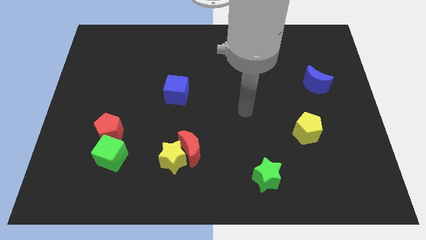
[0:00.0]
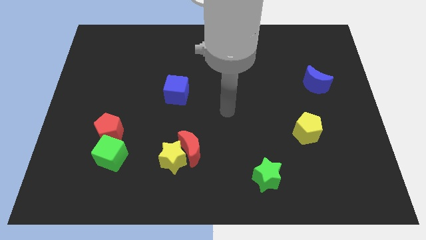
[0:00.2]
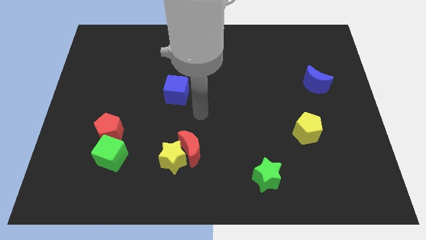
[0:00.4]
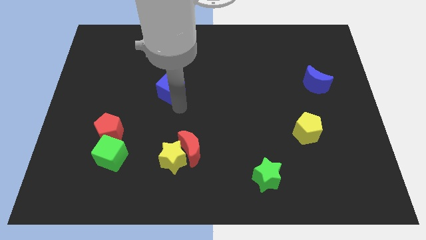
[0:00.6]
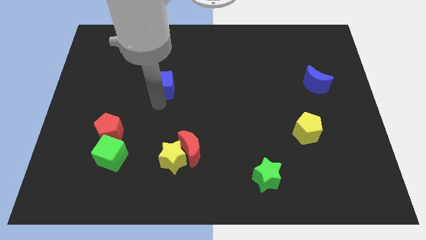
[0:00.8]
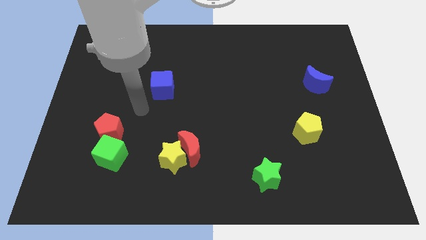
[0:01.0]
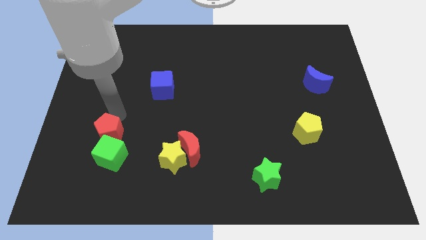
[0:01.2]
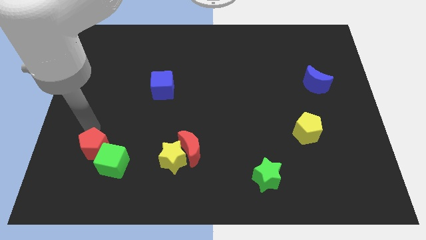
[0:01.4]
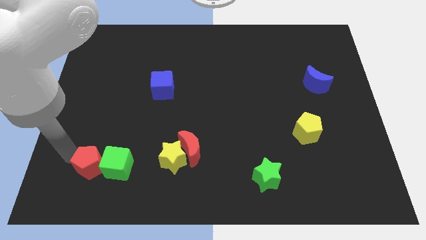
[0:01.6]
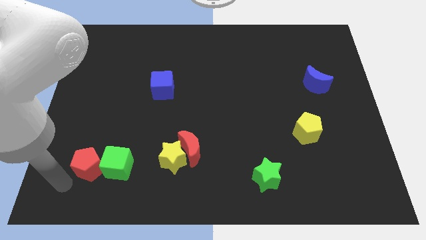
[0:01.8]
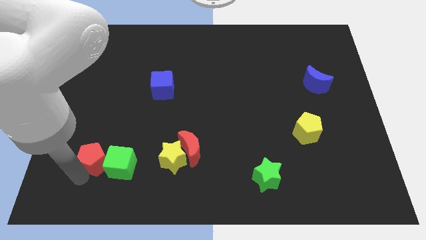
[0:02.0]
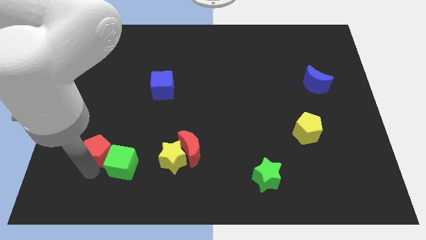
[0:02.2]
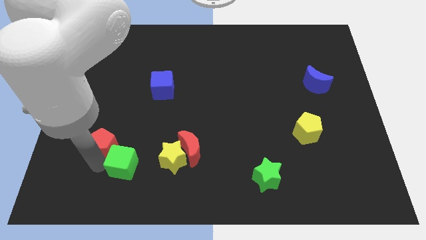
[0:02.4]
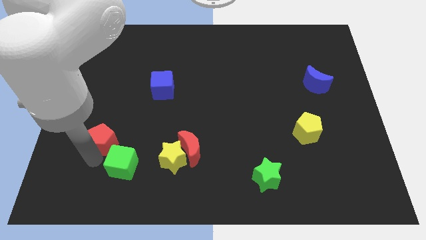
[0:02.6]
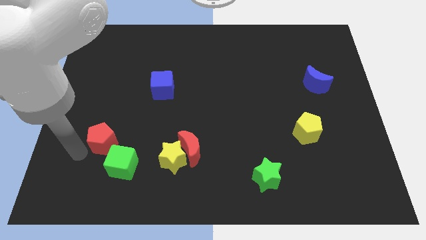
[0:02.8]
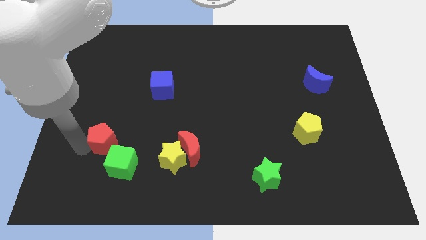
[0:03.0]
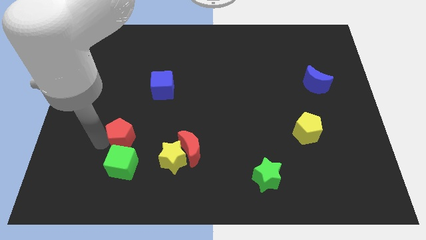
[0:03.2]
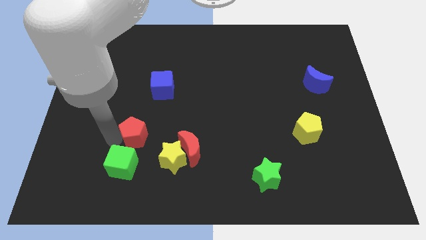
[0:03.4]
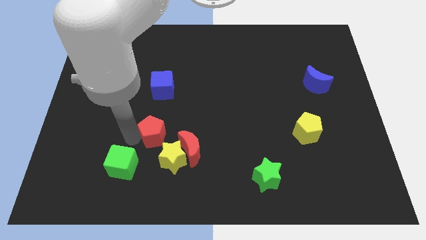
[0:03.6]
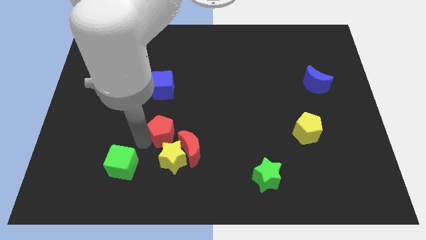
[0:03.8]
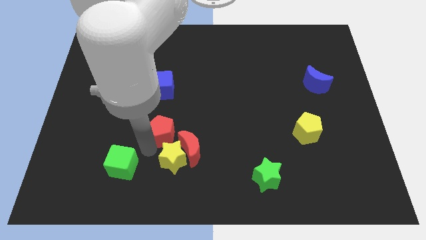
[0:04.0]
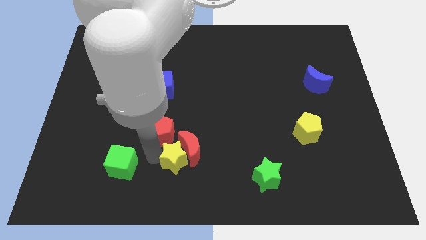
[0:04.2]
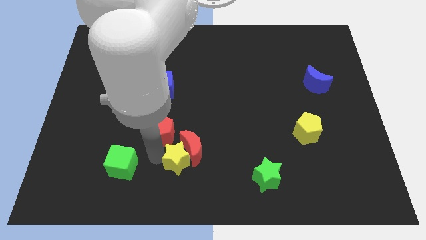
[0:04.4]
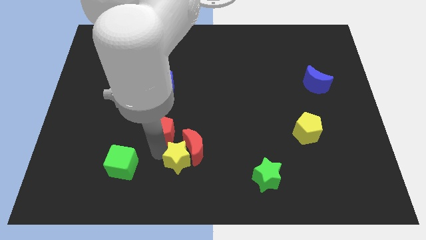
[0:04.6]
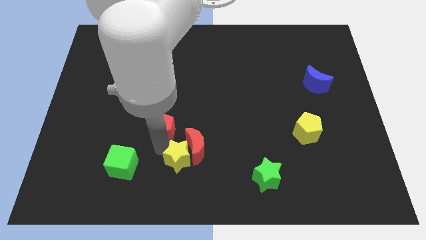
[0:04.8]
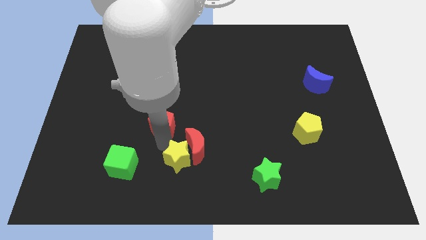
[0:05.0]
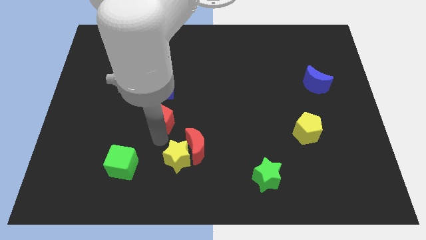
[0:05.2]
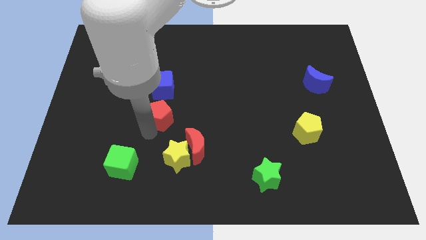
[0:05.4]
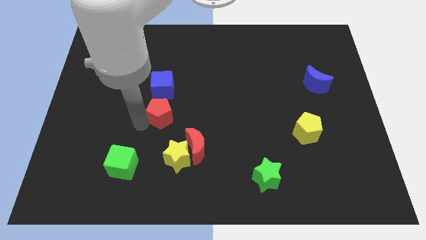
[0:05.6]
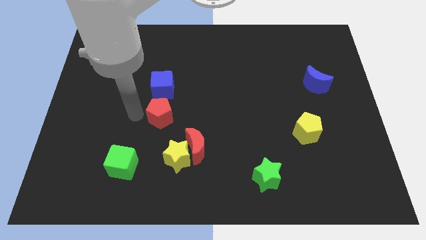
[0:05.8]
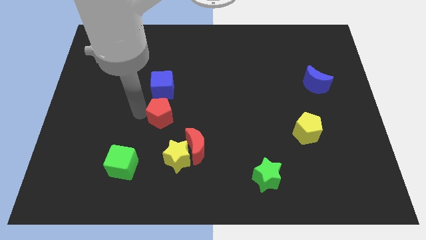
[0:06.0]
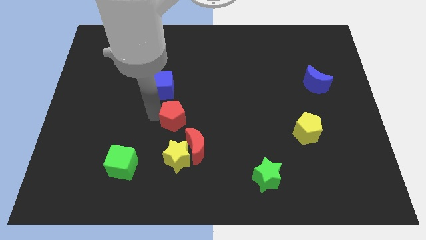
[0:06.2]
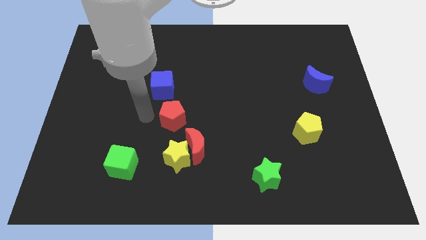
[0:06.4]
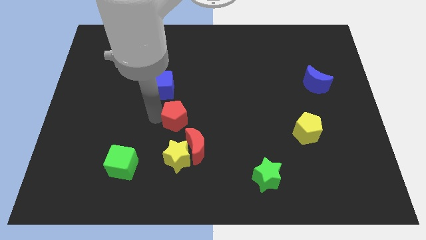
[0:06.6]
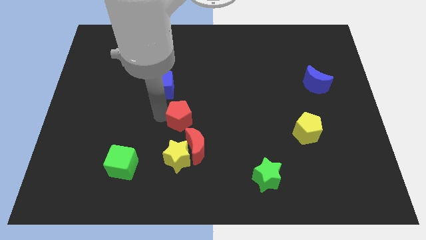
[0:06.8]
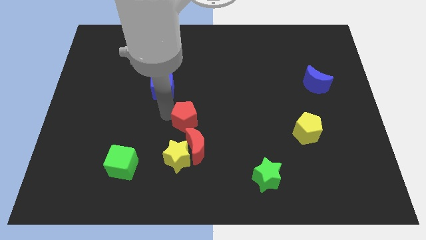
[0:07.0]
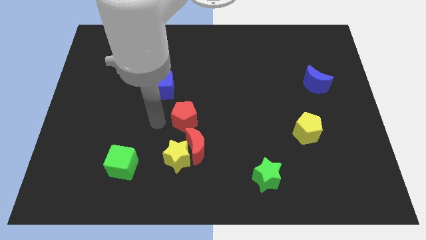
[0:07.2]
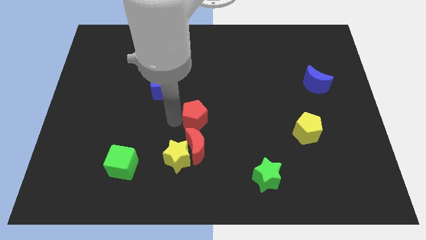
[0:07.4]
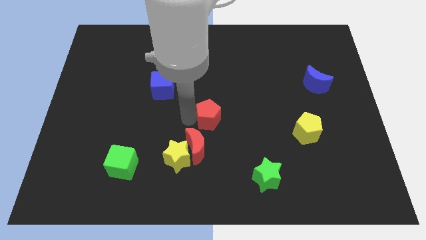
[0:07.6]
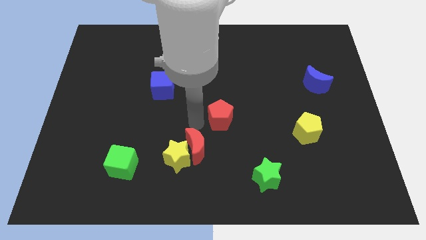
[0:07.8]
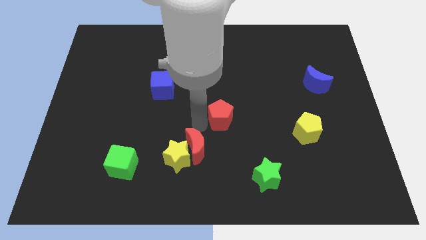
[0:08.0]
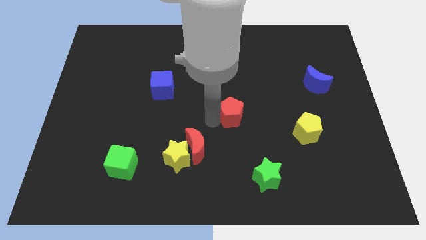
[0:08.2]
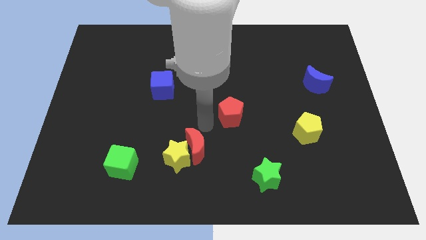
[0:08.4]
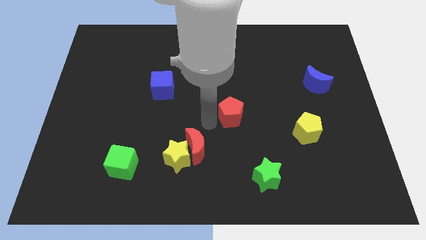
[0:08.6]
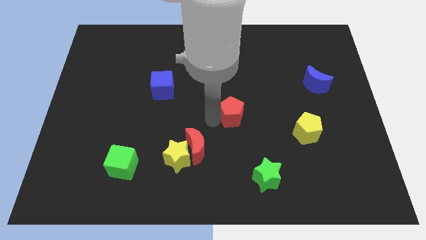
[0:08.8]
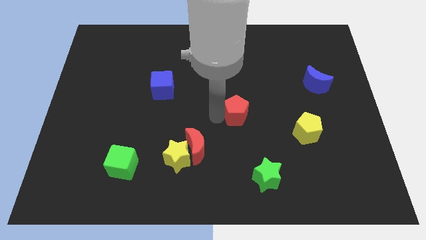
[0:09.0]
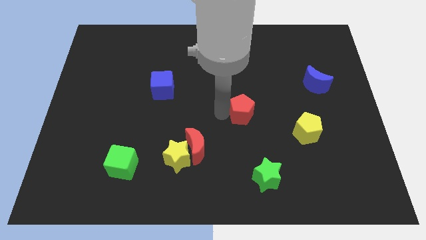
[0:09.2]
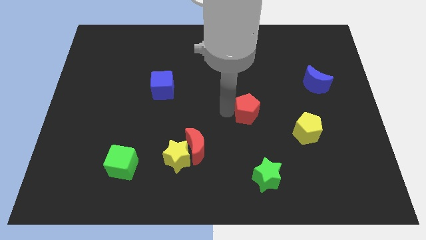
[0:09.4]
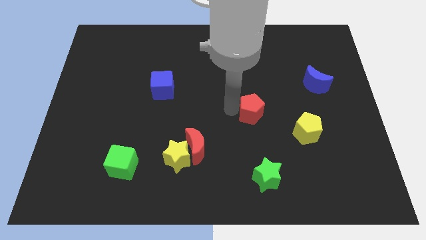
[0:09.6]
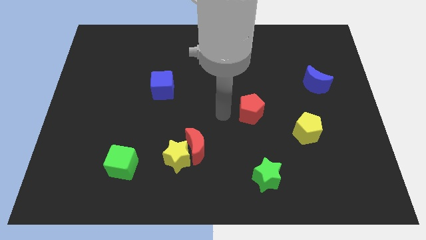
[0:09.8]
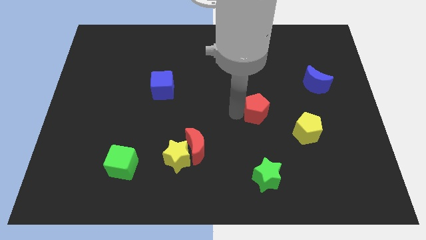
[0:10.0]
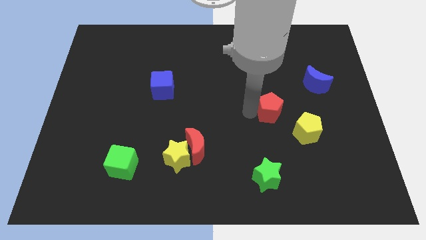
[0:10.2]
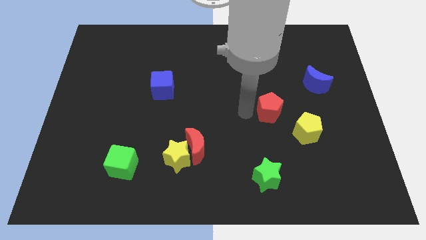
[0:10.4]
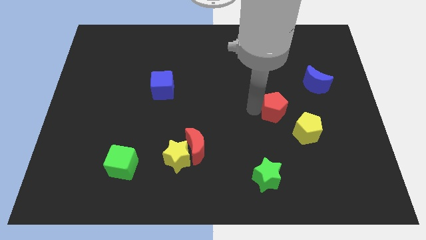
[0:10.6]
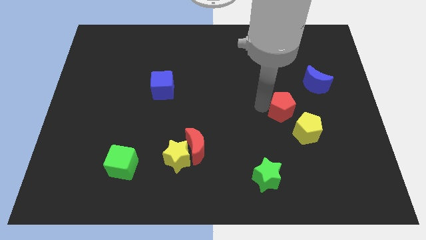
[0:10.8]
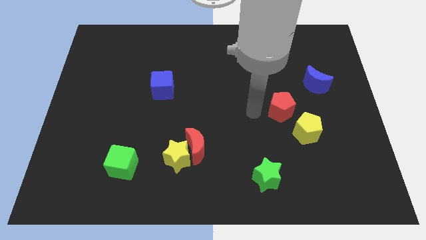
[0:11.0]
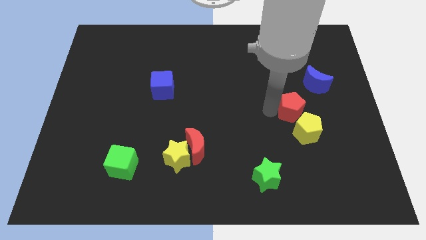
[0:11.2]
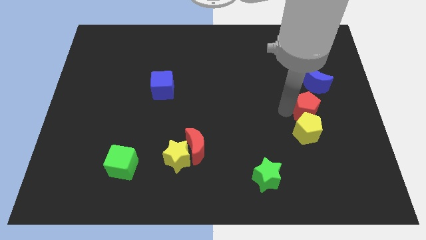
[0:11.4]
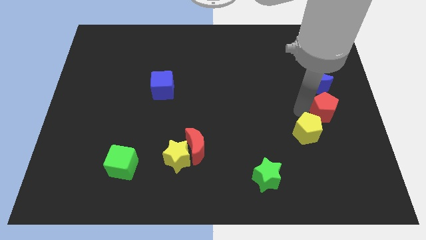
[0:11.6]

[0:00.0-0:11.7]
put the red pentagon to the center right

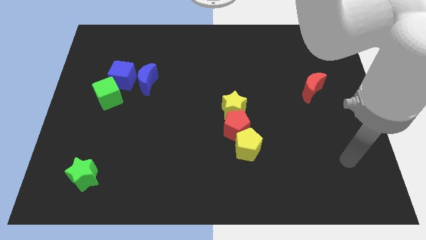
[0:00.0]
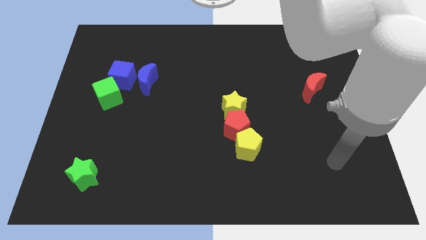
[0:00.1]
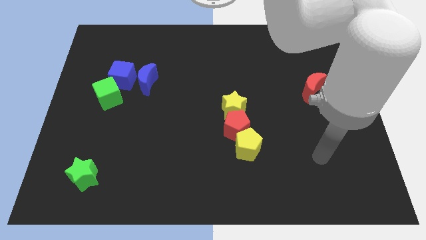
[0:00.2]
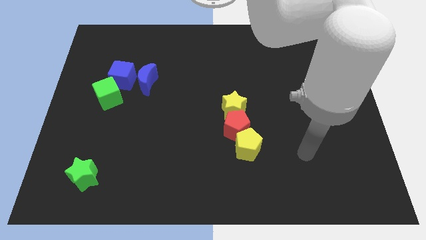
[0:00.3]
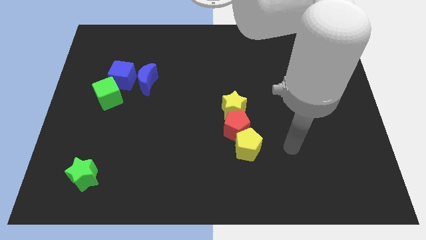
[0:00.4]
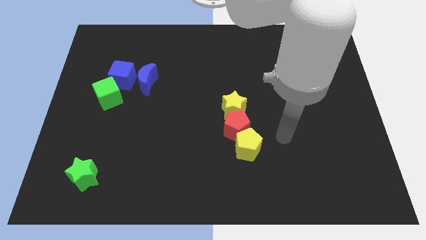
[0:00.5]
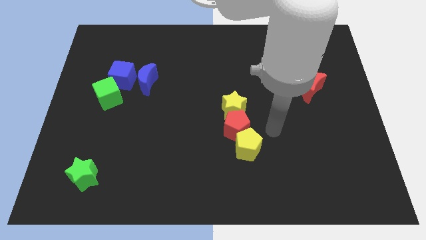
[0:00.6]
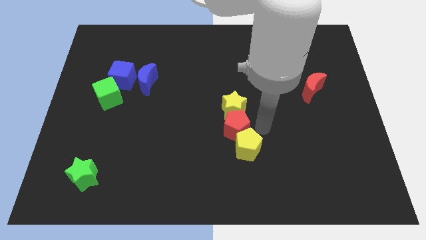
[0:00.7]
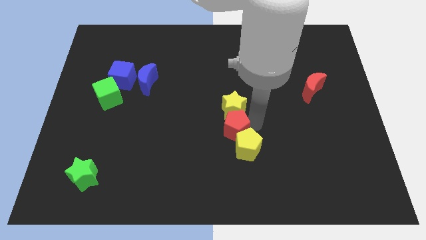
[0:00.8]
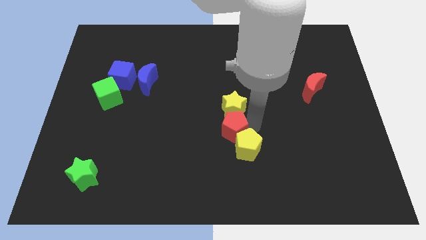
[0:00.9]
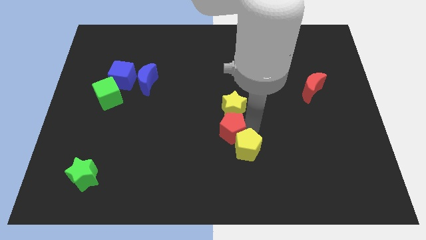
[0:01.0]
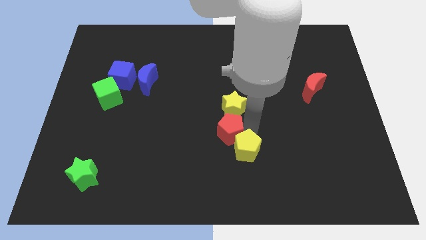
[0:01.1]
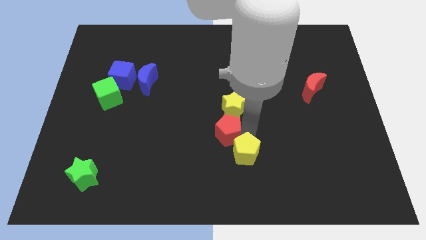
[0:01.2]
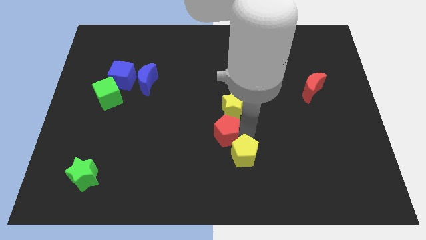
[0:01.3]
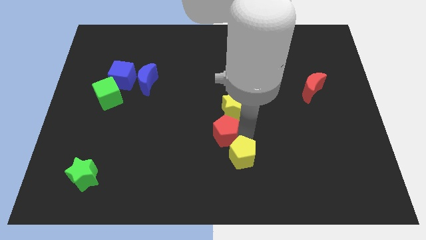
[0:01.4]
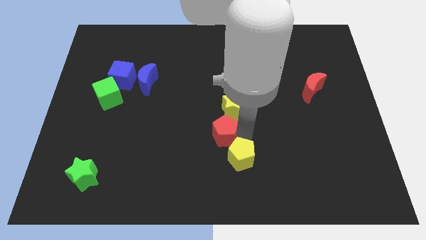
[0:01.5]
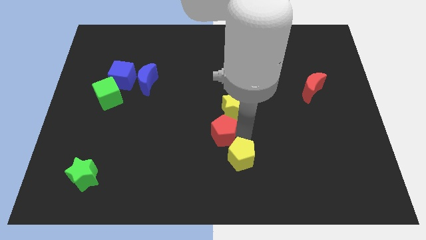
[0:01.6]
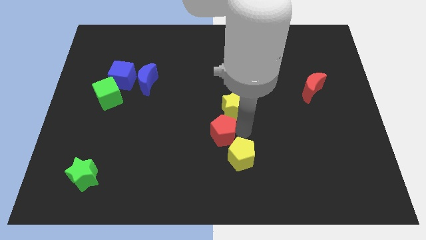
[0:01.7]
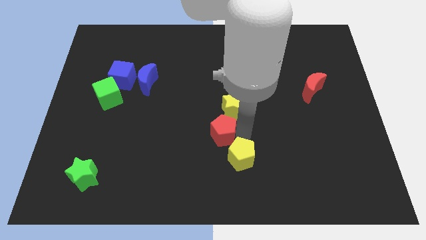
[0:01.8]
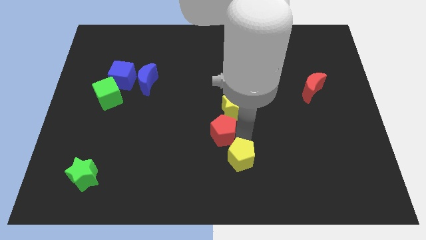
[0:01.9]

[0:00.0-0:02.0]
push the yellow pentagon to the bottom
